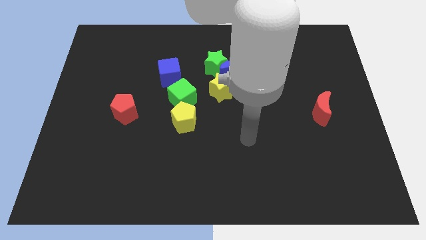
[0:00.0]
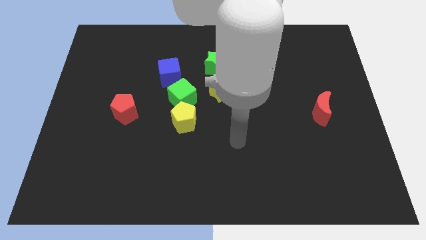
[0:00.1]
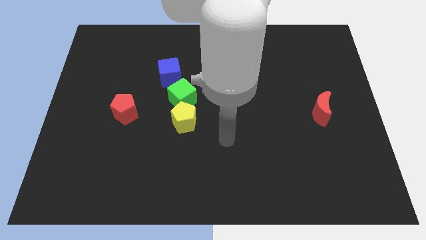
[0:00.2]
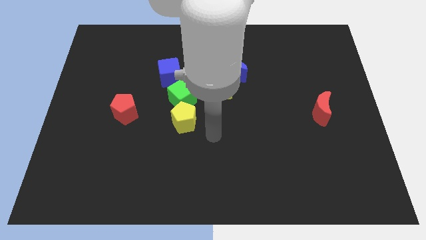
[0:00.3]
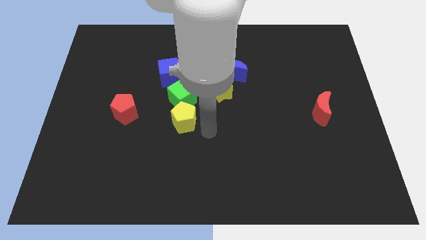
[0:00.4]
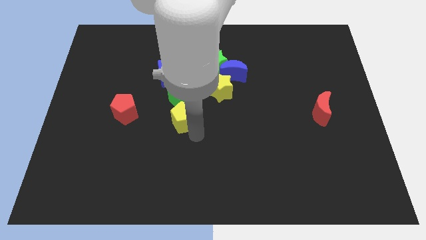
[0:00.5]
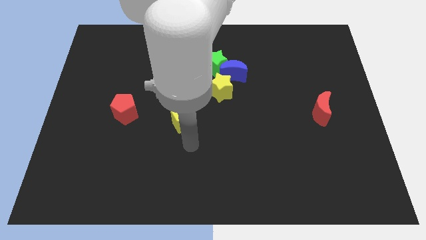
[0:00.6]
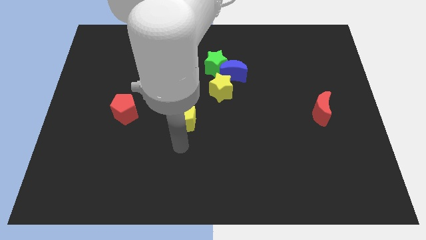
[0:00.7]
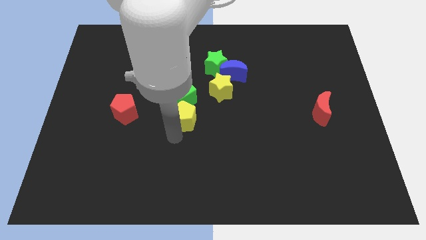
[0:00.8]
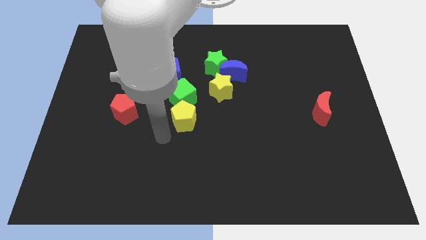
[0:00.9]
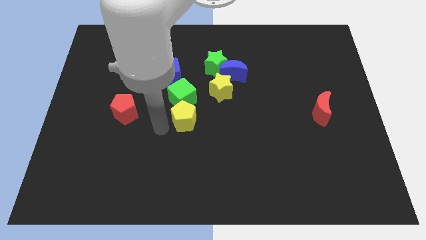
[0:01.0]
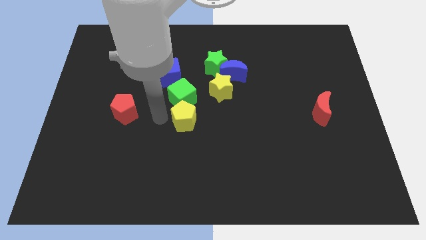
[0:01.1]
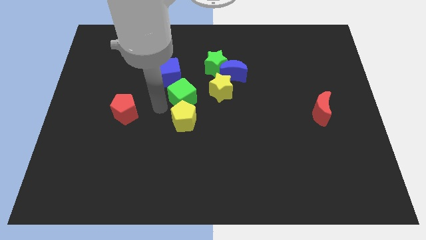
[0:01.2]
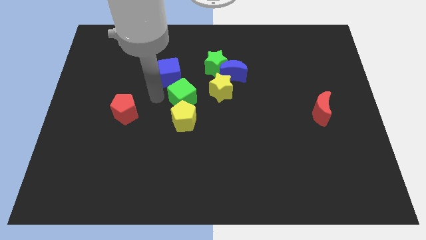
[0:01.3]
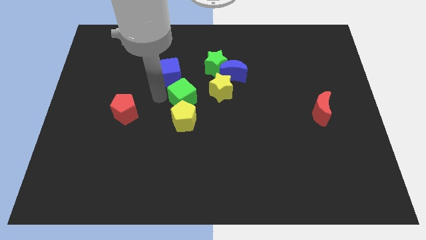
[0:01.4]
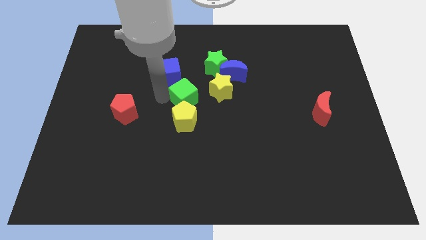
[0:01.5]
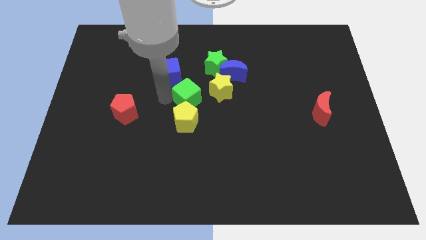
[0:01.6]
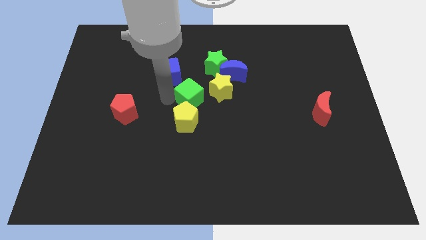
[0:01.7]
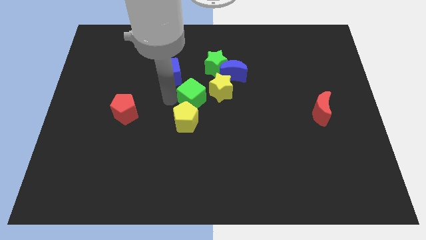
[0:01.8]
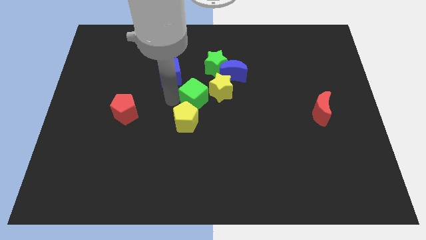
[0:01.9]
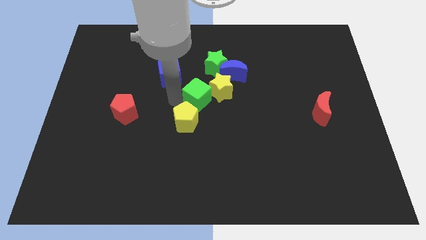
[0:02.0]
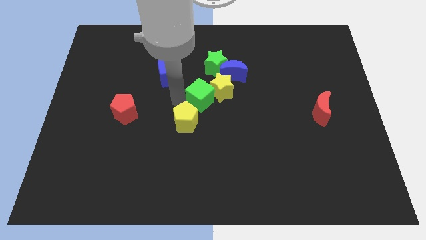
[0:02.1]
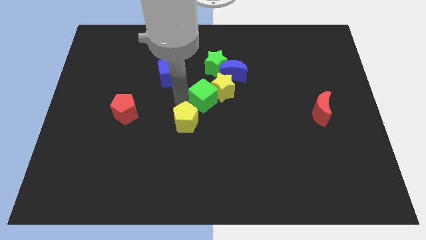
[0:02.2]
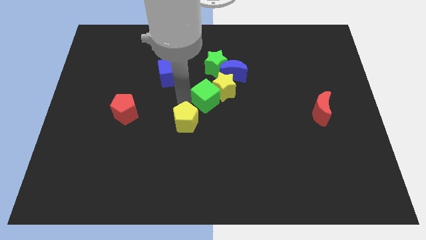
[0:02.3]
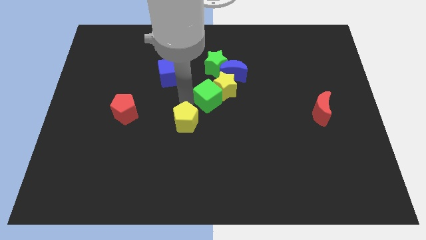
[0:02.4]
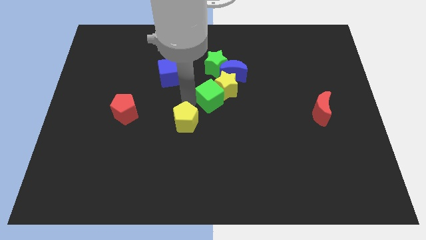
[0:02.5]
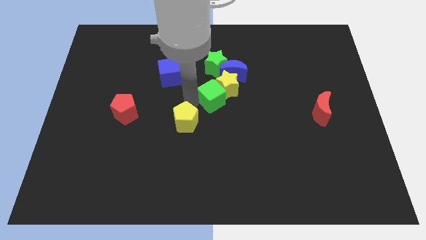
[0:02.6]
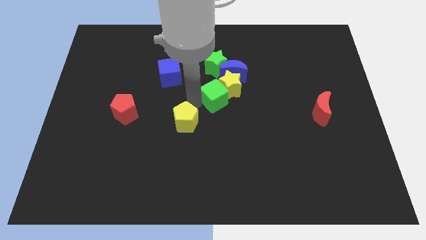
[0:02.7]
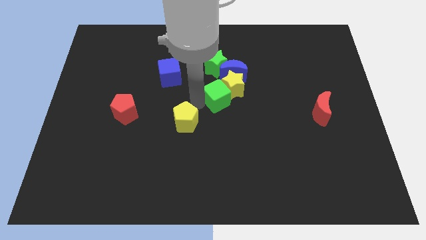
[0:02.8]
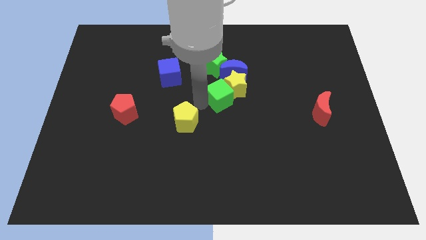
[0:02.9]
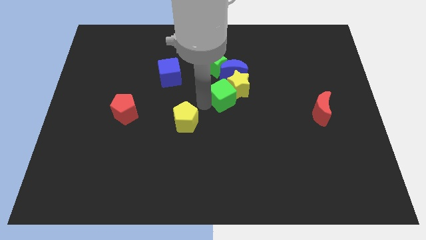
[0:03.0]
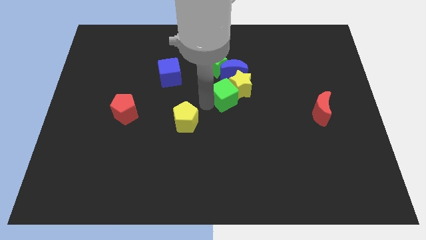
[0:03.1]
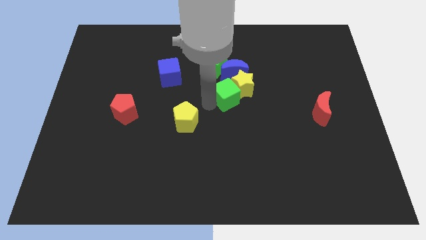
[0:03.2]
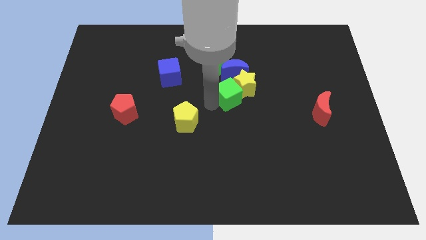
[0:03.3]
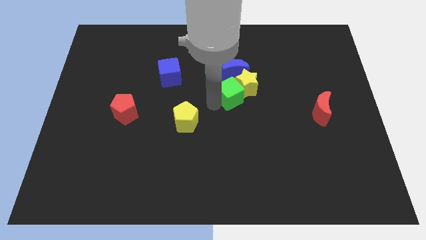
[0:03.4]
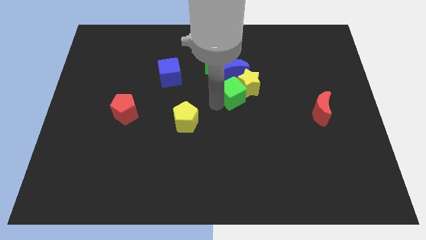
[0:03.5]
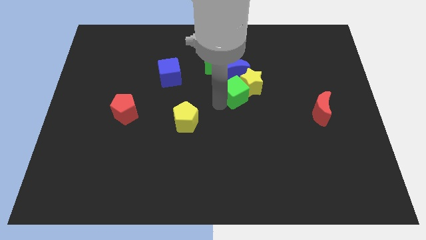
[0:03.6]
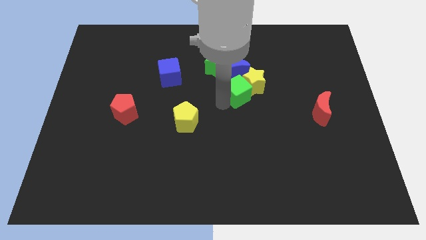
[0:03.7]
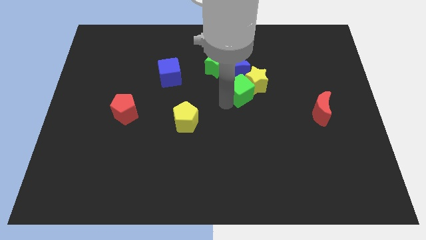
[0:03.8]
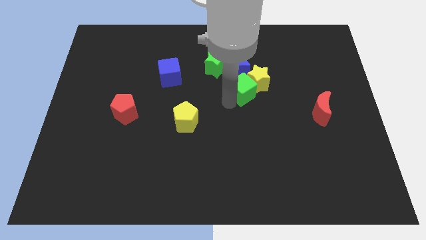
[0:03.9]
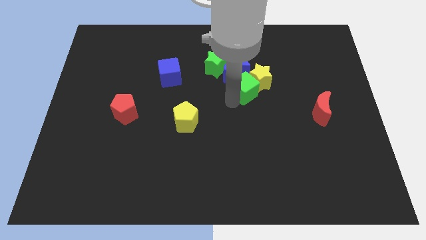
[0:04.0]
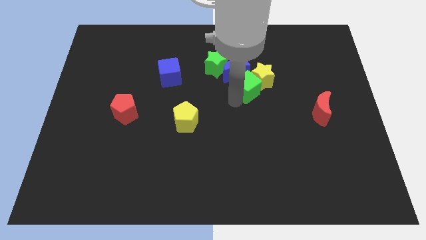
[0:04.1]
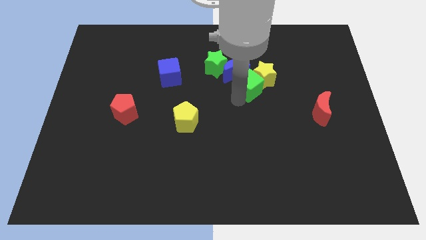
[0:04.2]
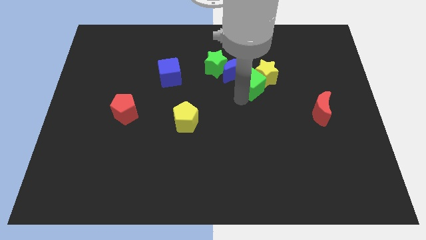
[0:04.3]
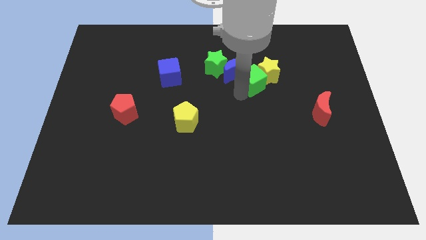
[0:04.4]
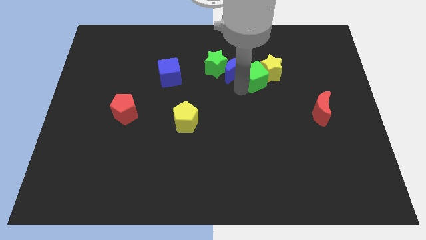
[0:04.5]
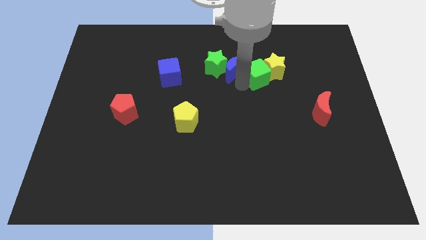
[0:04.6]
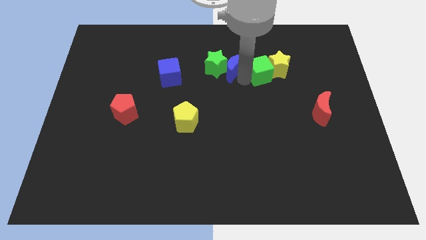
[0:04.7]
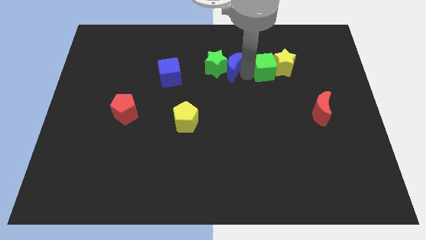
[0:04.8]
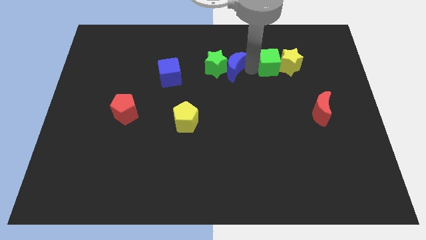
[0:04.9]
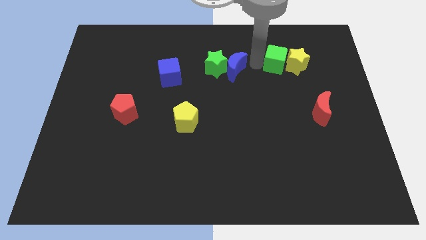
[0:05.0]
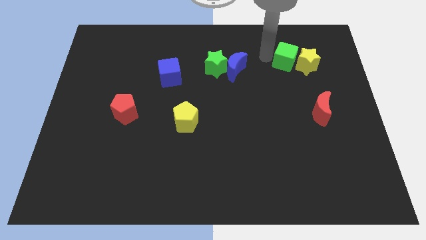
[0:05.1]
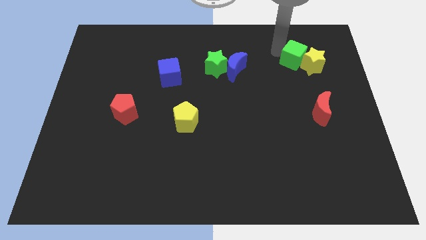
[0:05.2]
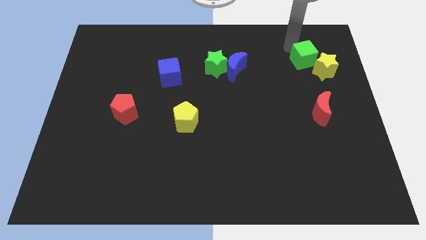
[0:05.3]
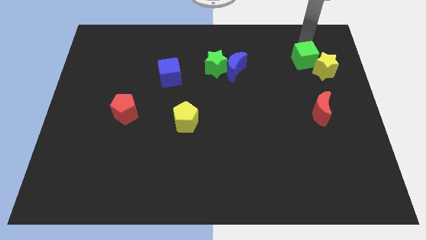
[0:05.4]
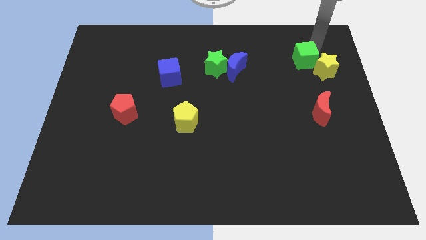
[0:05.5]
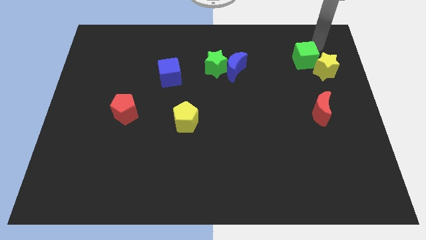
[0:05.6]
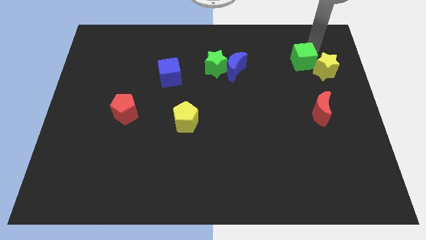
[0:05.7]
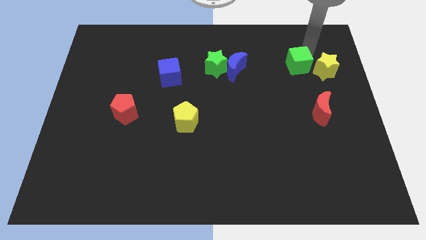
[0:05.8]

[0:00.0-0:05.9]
move the green cube right

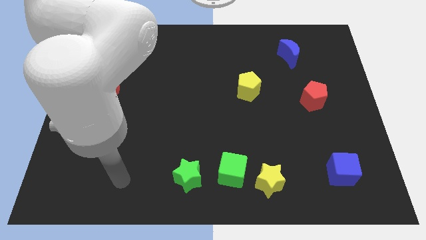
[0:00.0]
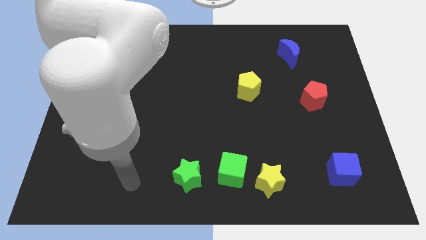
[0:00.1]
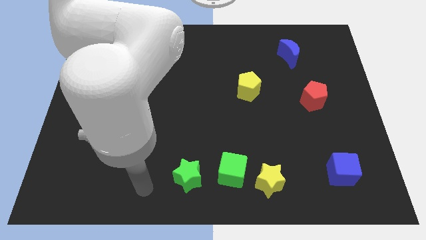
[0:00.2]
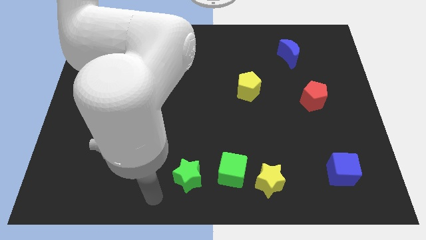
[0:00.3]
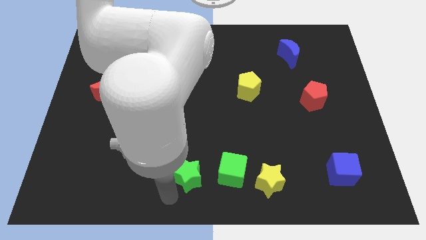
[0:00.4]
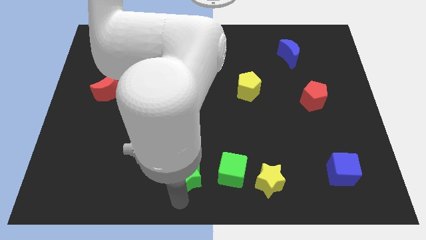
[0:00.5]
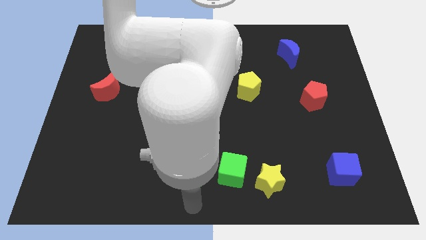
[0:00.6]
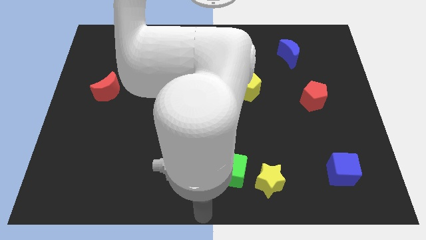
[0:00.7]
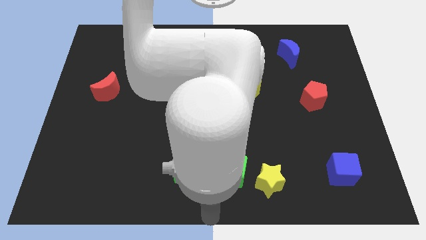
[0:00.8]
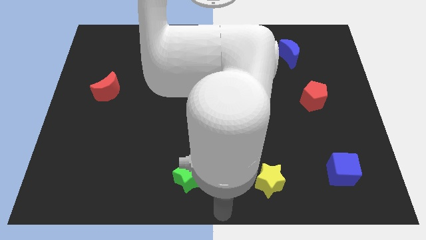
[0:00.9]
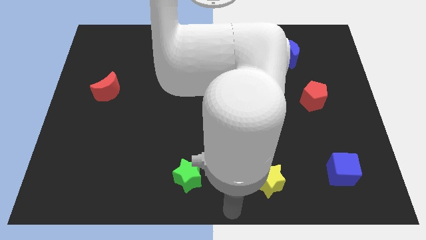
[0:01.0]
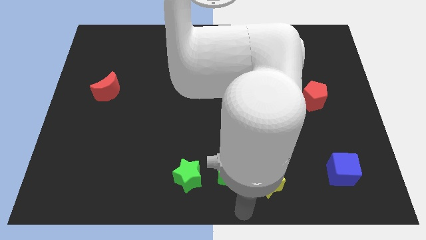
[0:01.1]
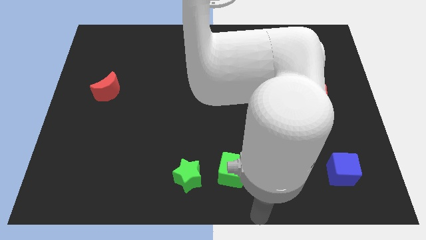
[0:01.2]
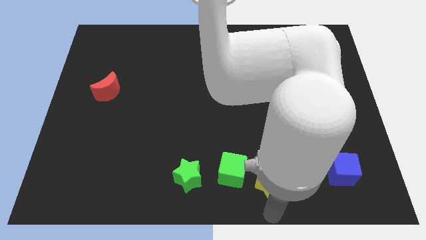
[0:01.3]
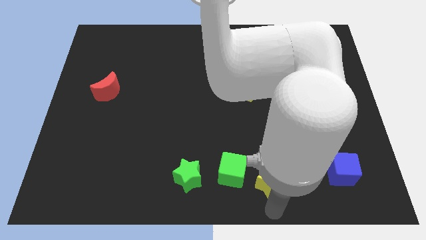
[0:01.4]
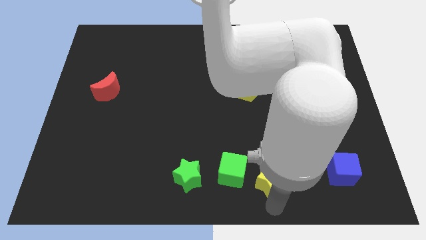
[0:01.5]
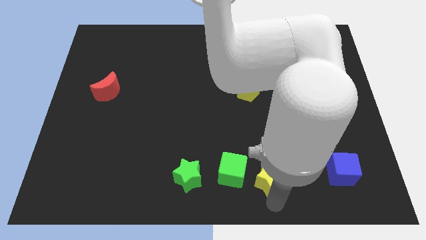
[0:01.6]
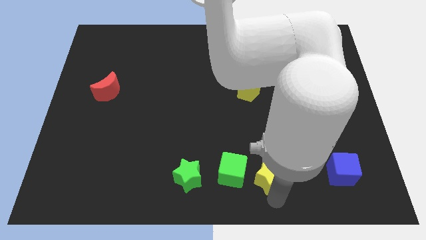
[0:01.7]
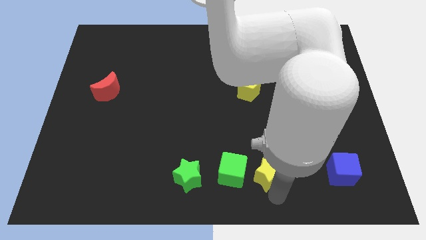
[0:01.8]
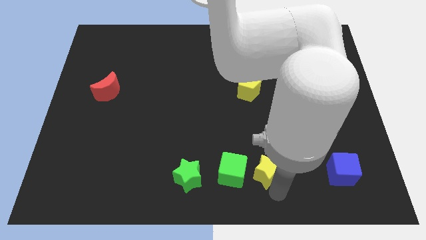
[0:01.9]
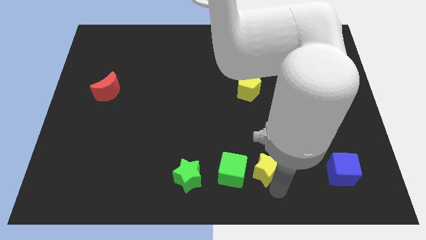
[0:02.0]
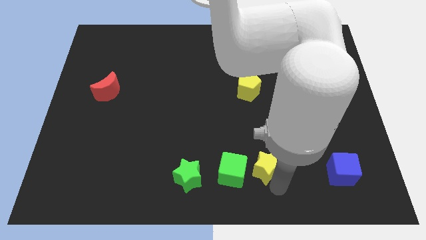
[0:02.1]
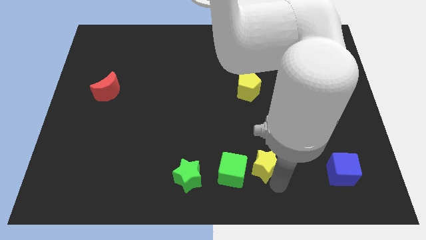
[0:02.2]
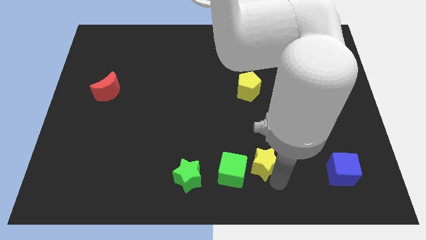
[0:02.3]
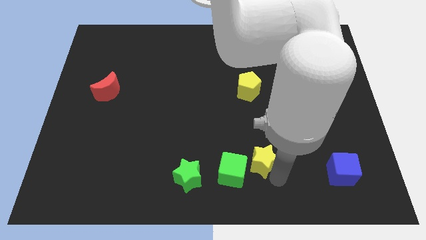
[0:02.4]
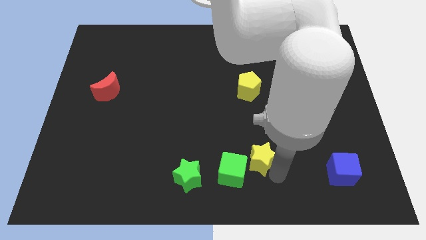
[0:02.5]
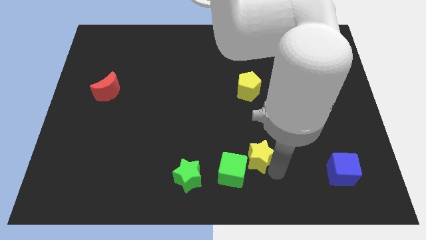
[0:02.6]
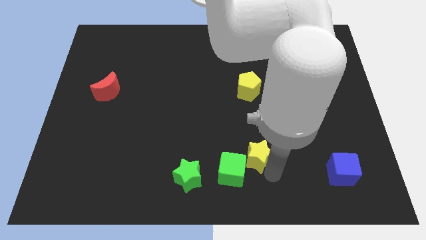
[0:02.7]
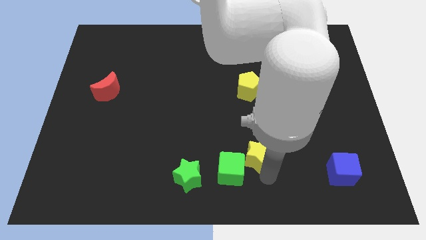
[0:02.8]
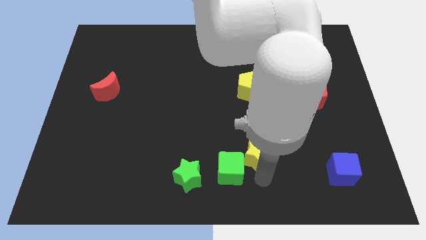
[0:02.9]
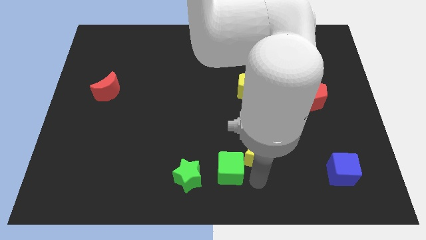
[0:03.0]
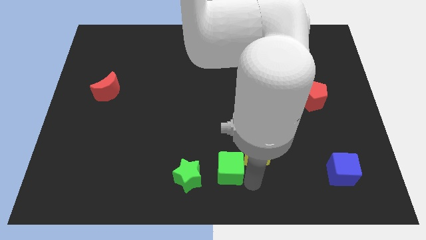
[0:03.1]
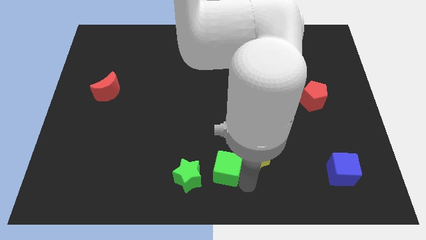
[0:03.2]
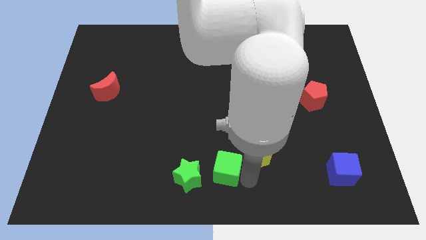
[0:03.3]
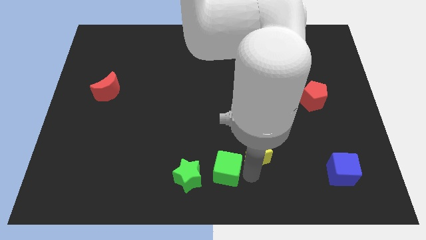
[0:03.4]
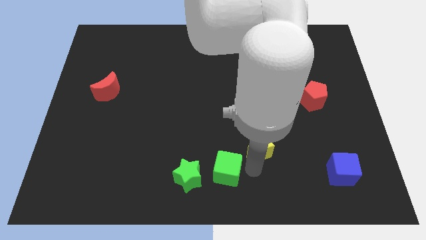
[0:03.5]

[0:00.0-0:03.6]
slightly push the yellow star upwards
